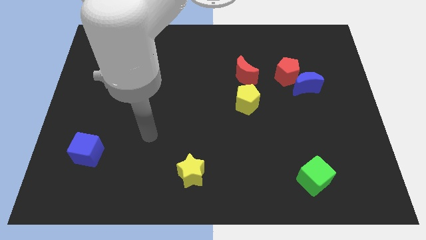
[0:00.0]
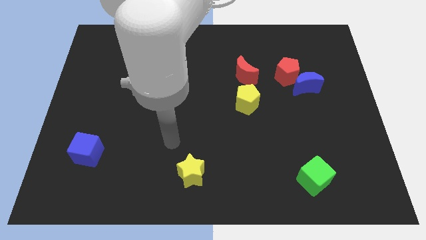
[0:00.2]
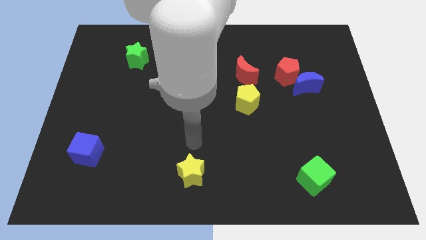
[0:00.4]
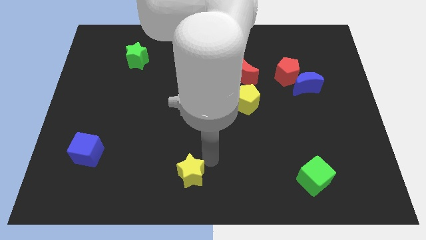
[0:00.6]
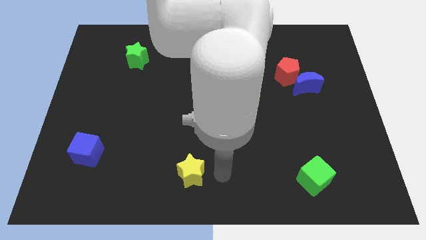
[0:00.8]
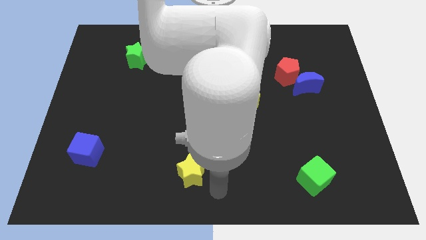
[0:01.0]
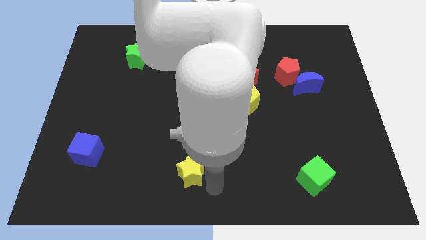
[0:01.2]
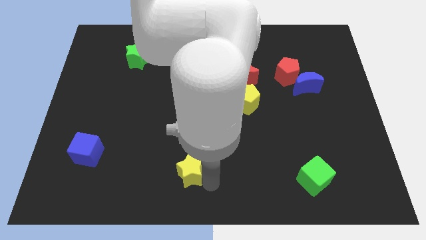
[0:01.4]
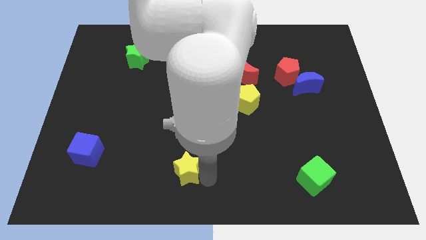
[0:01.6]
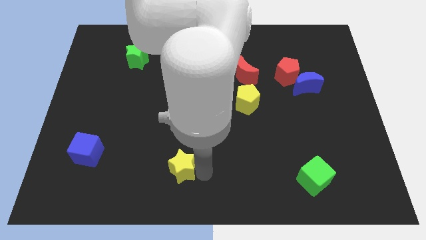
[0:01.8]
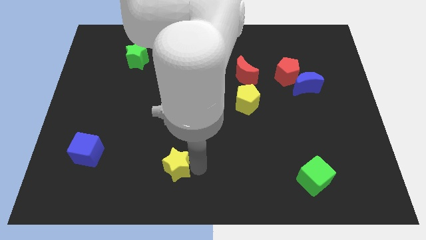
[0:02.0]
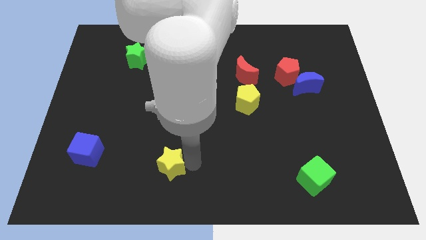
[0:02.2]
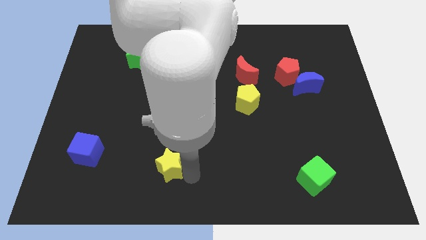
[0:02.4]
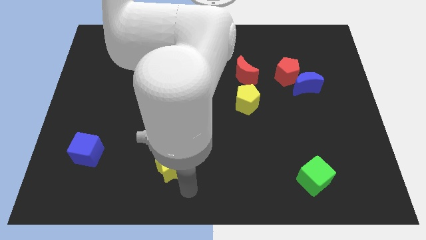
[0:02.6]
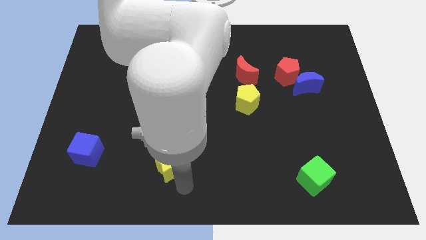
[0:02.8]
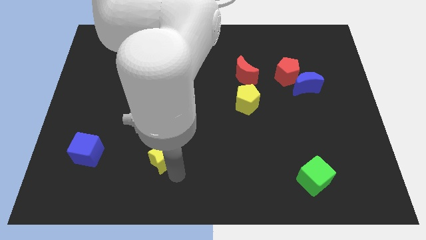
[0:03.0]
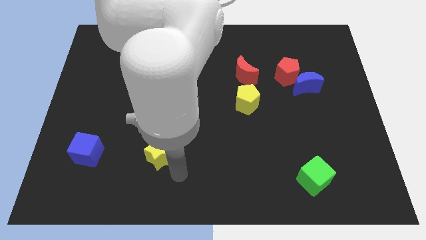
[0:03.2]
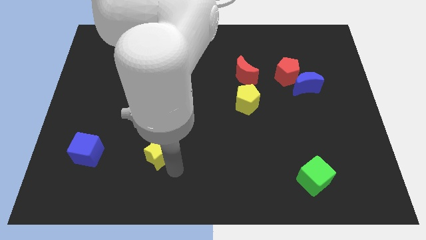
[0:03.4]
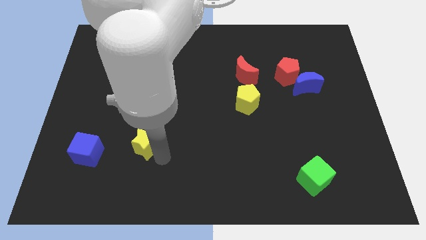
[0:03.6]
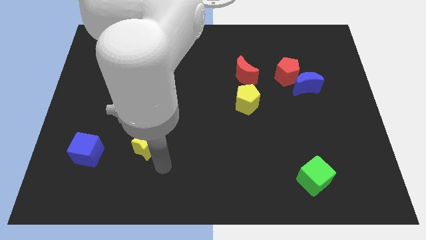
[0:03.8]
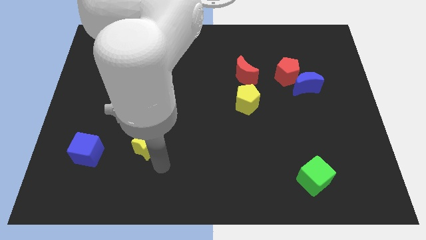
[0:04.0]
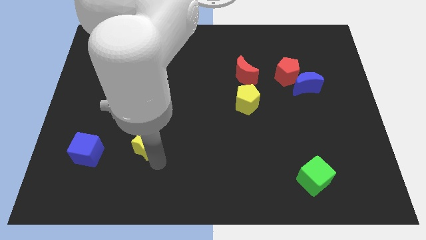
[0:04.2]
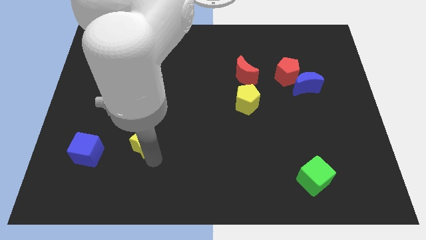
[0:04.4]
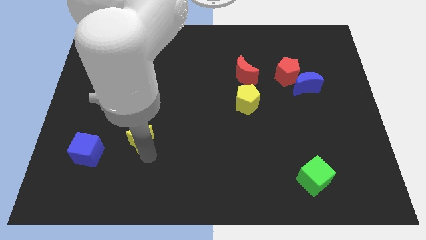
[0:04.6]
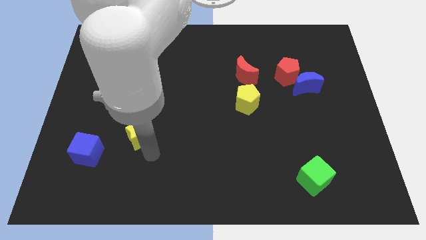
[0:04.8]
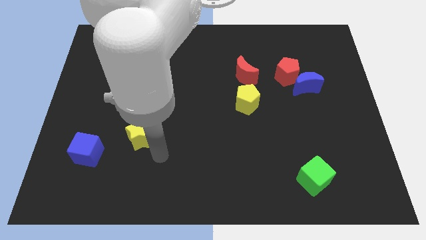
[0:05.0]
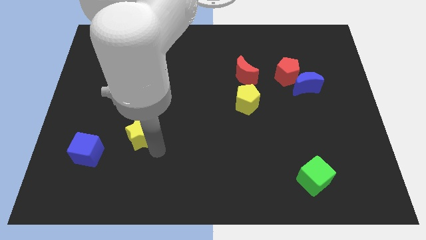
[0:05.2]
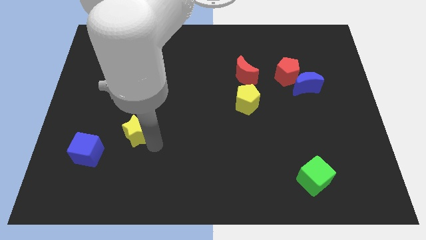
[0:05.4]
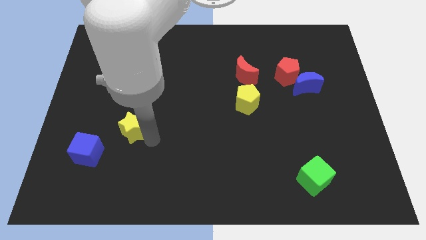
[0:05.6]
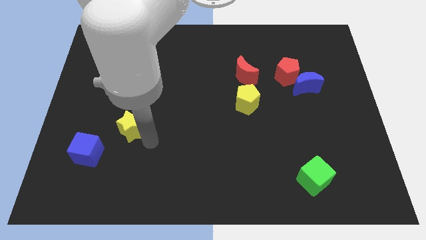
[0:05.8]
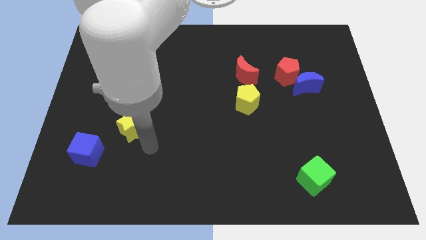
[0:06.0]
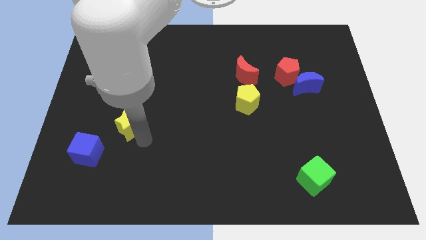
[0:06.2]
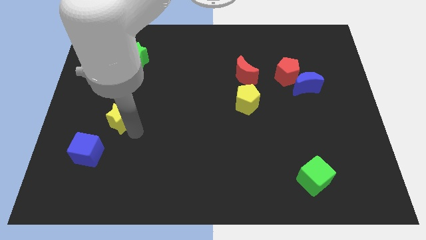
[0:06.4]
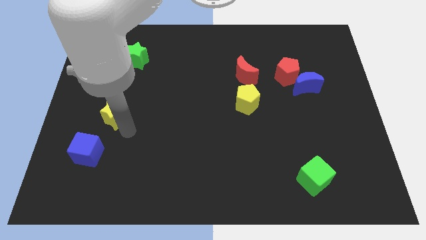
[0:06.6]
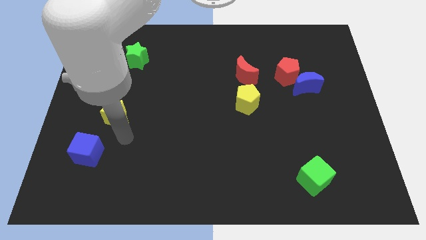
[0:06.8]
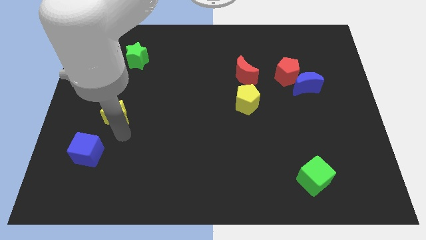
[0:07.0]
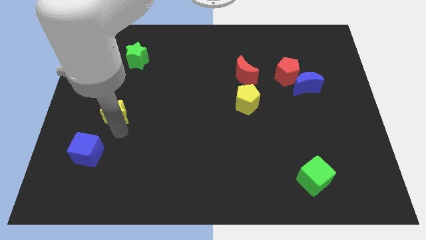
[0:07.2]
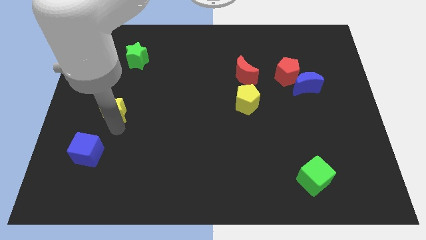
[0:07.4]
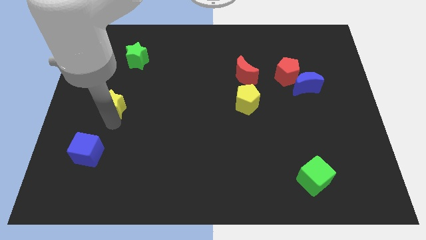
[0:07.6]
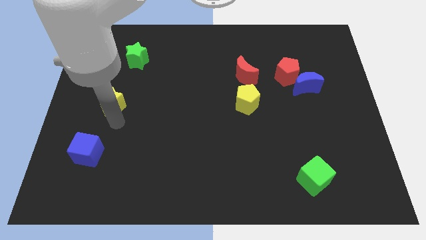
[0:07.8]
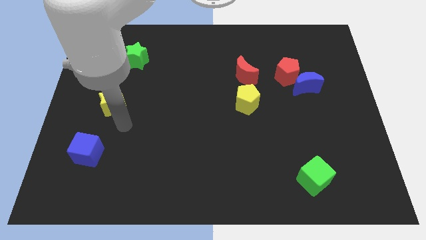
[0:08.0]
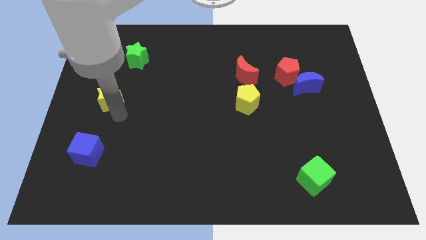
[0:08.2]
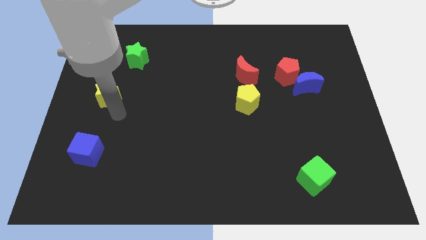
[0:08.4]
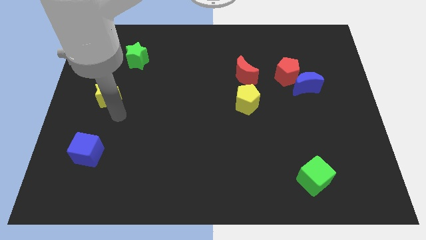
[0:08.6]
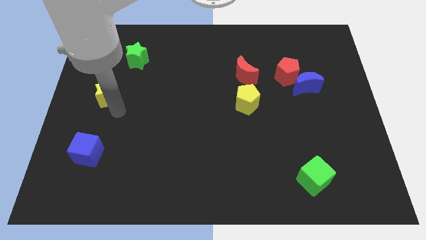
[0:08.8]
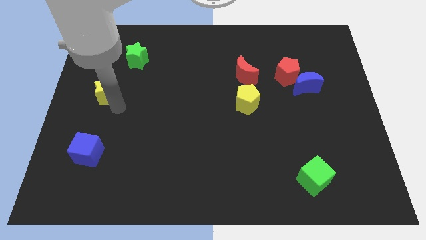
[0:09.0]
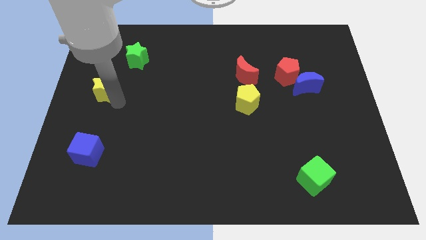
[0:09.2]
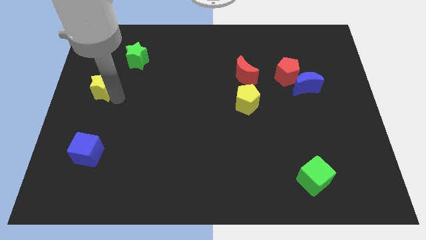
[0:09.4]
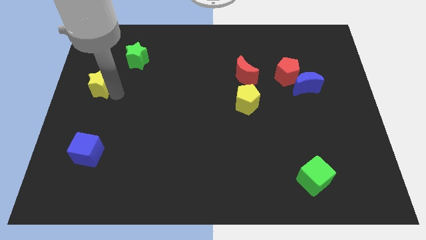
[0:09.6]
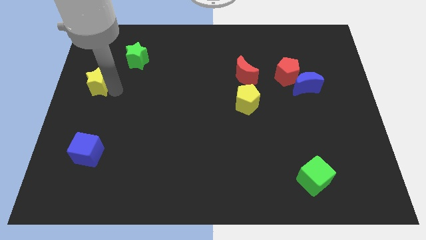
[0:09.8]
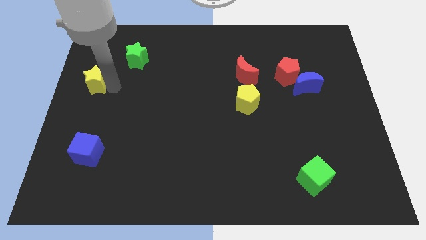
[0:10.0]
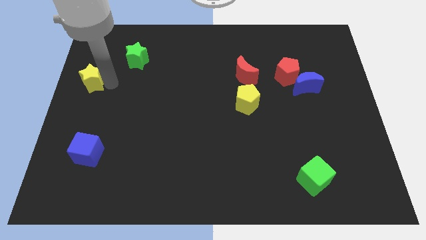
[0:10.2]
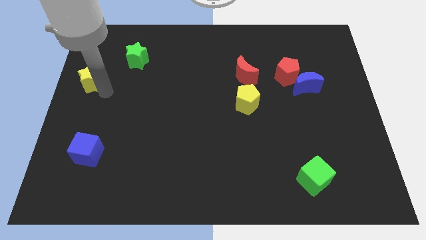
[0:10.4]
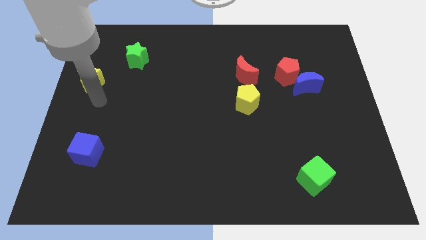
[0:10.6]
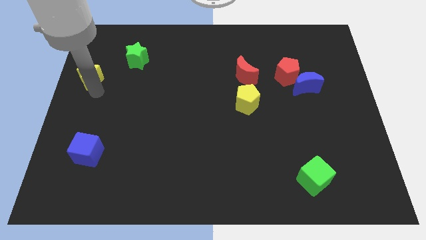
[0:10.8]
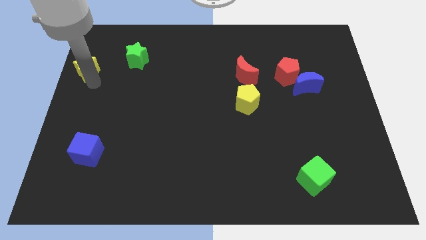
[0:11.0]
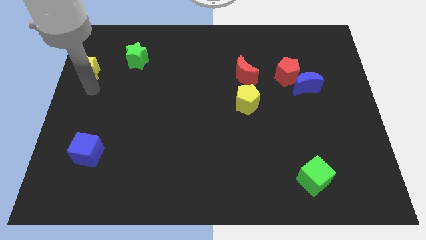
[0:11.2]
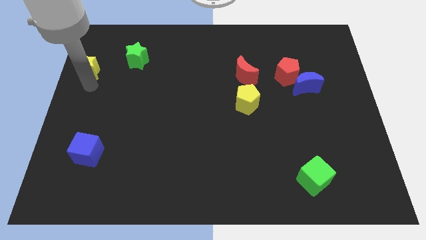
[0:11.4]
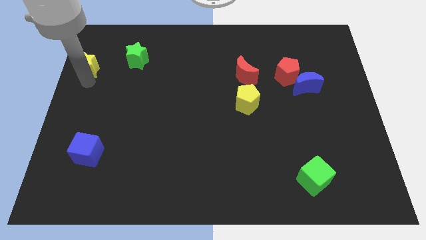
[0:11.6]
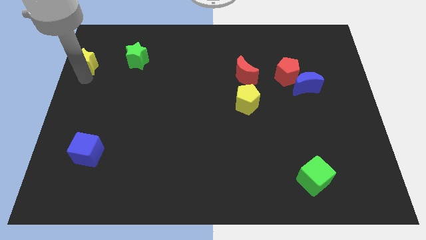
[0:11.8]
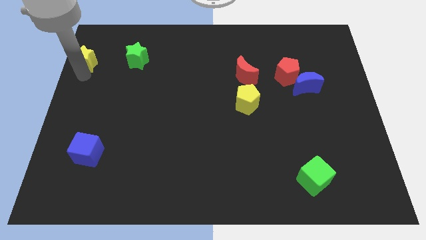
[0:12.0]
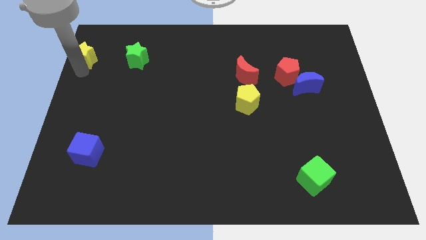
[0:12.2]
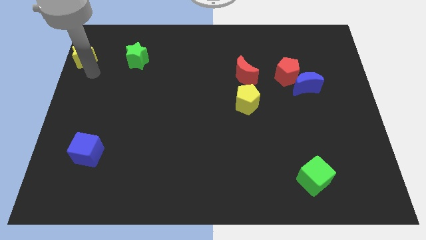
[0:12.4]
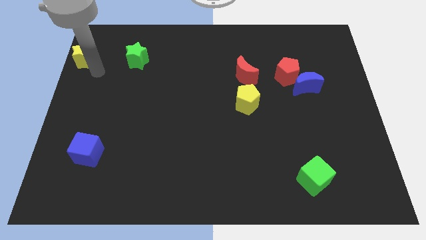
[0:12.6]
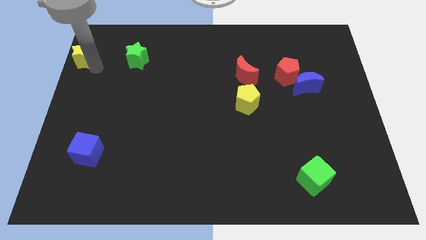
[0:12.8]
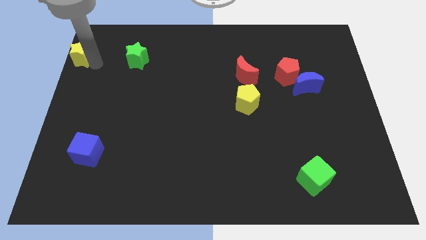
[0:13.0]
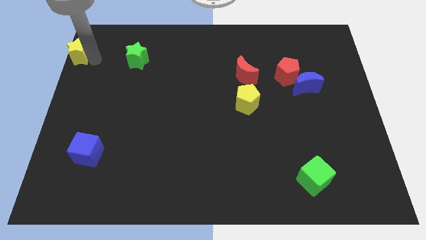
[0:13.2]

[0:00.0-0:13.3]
slide the yellow star to the top left corner
